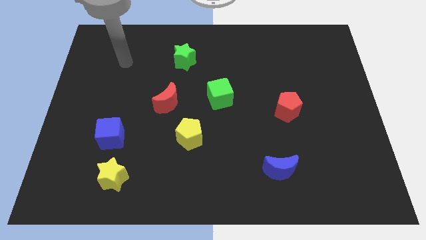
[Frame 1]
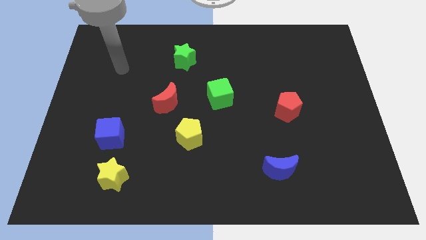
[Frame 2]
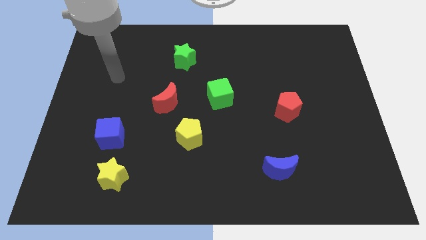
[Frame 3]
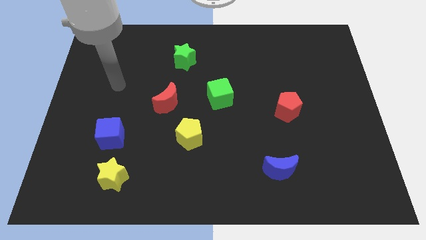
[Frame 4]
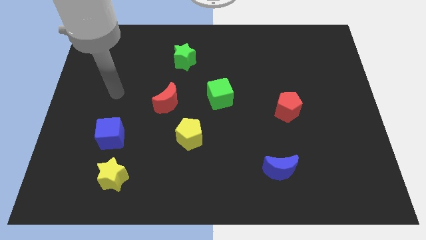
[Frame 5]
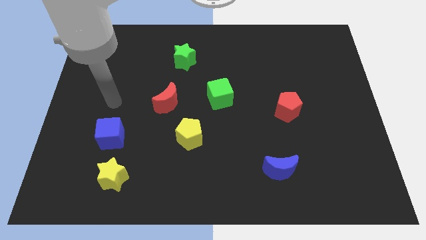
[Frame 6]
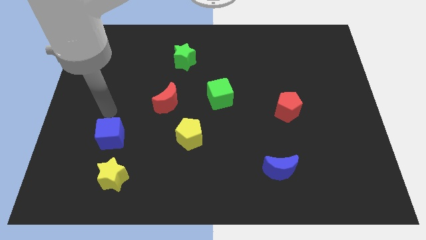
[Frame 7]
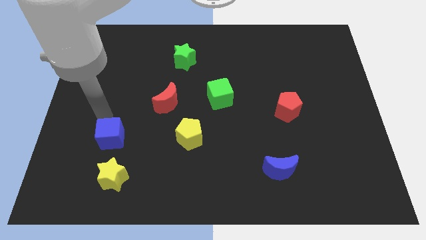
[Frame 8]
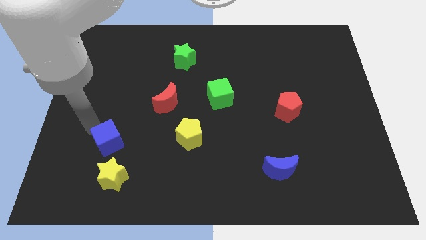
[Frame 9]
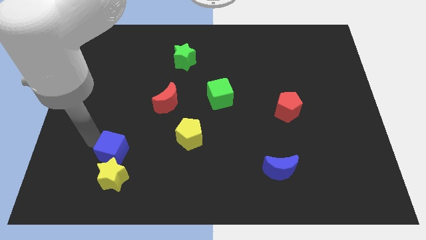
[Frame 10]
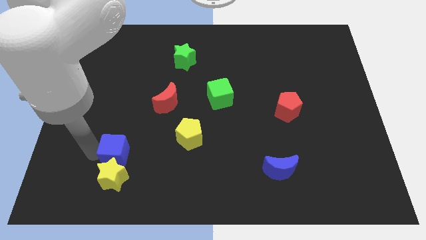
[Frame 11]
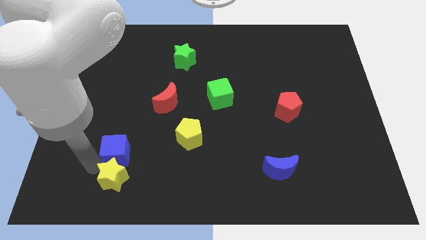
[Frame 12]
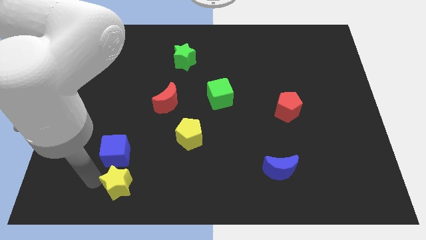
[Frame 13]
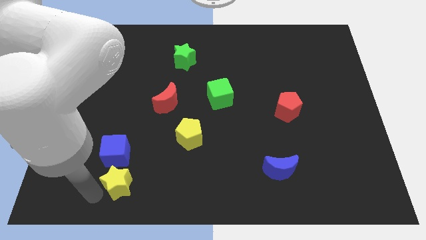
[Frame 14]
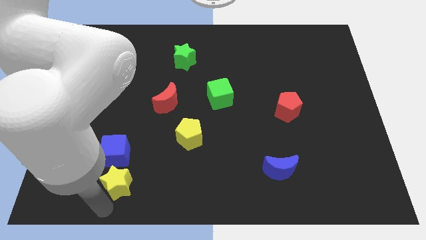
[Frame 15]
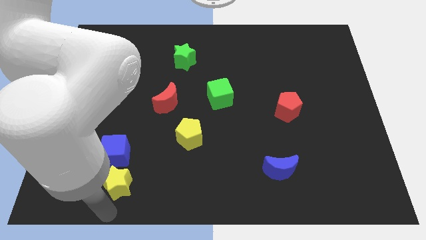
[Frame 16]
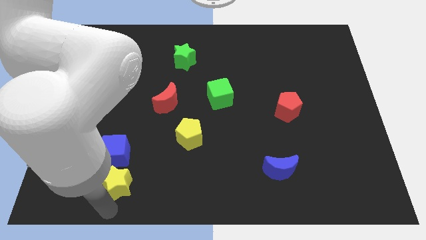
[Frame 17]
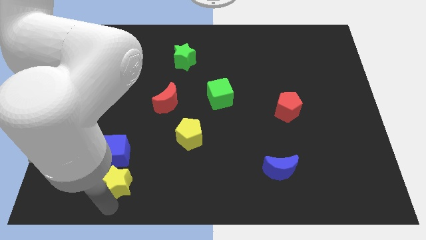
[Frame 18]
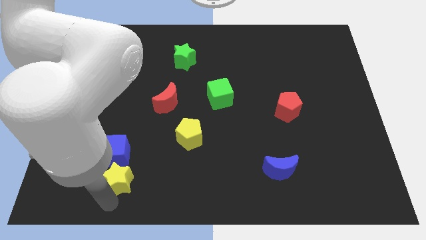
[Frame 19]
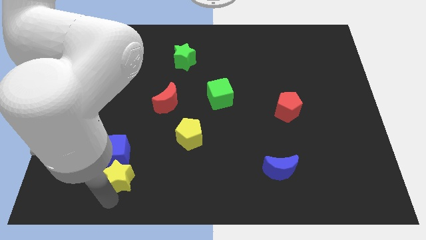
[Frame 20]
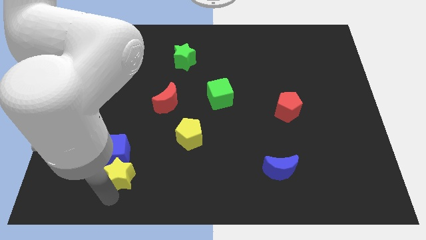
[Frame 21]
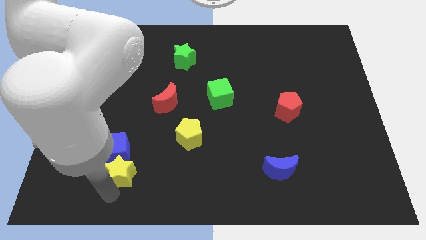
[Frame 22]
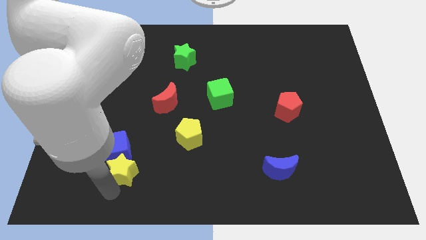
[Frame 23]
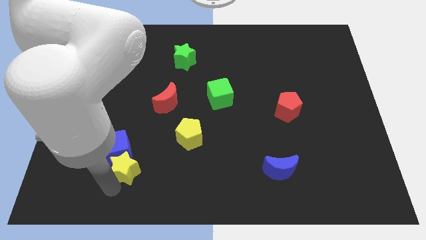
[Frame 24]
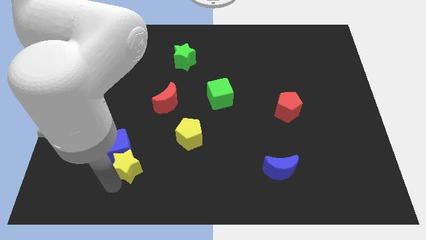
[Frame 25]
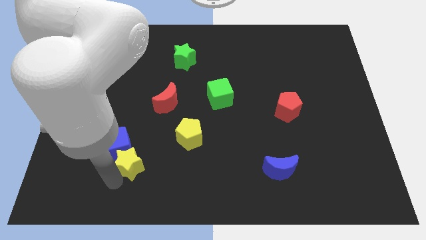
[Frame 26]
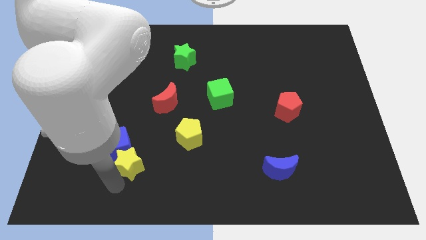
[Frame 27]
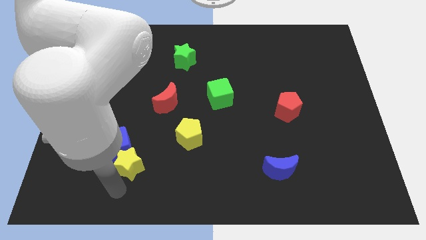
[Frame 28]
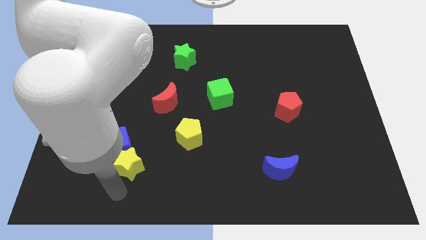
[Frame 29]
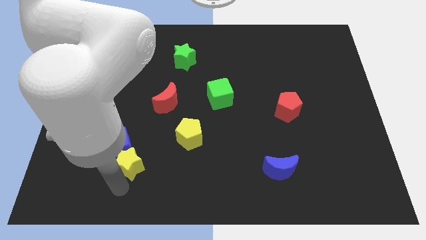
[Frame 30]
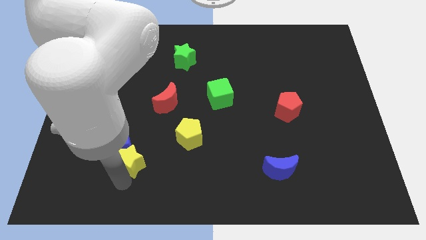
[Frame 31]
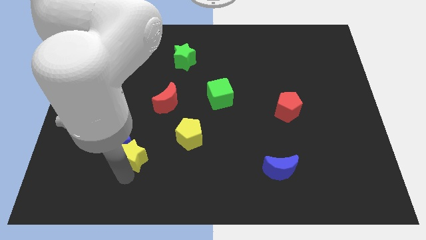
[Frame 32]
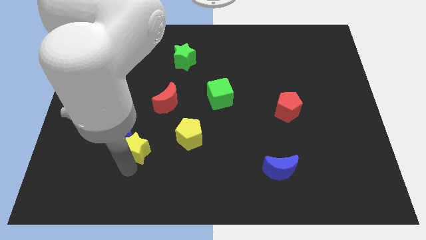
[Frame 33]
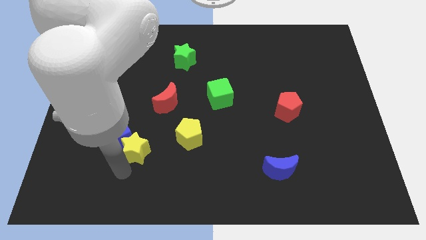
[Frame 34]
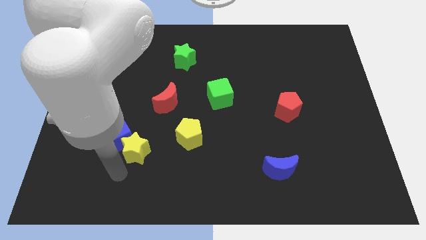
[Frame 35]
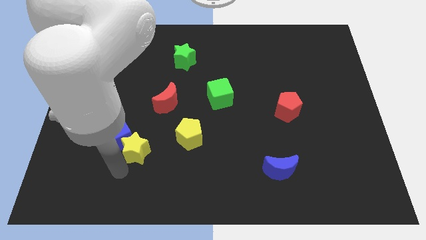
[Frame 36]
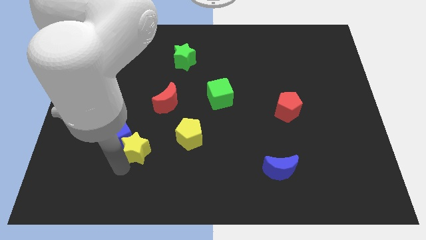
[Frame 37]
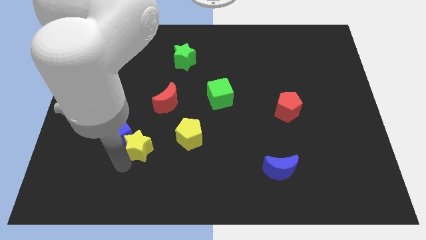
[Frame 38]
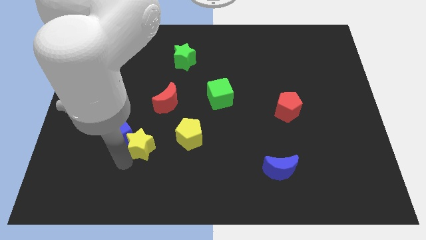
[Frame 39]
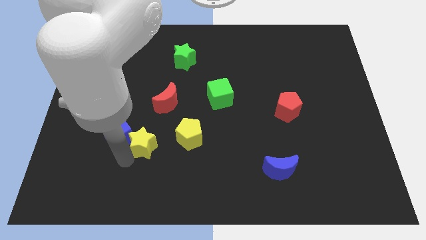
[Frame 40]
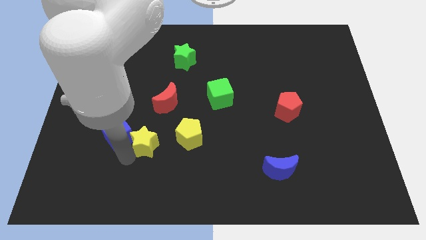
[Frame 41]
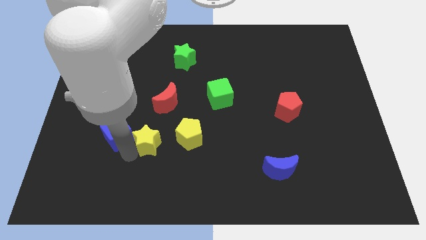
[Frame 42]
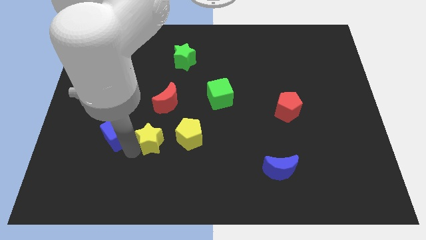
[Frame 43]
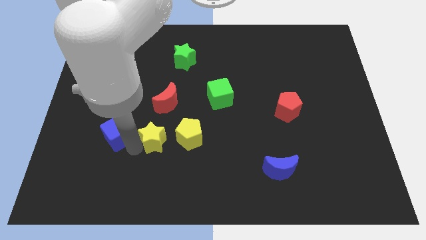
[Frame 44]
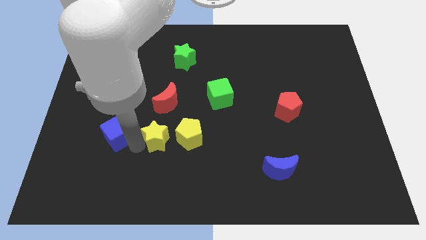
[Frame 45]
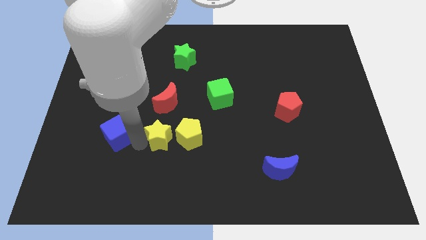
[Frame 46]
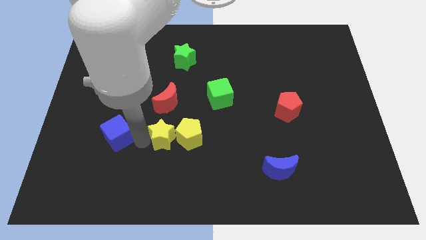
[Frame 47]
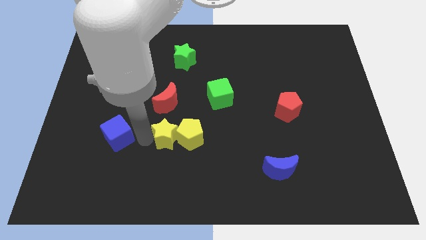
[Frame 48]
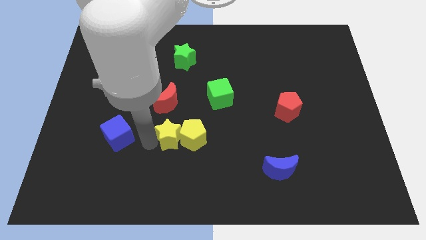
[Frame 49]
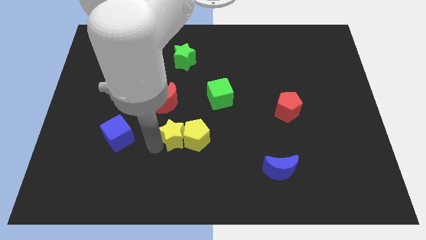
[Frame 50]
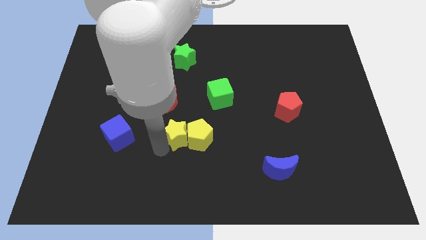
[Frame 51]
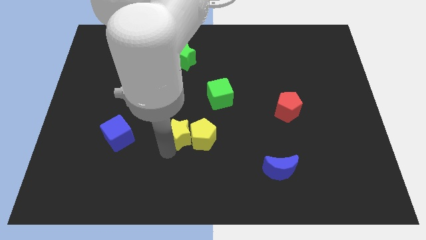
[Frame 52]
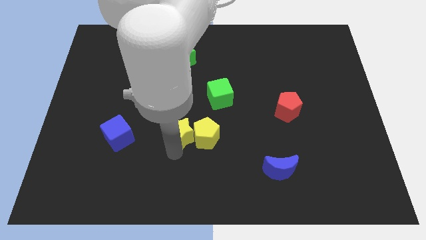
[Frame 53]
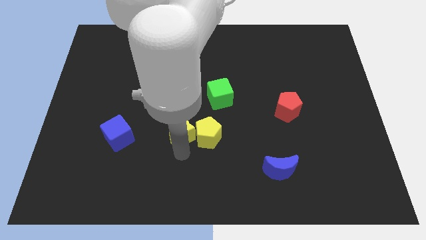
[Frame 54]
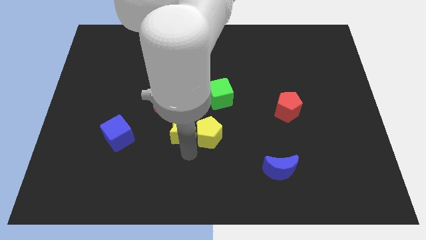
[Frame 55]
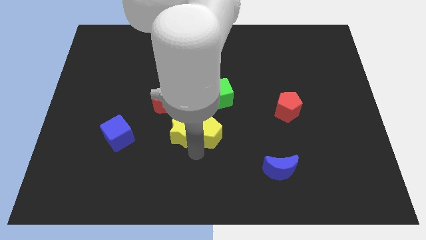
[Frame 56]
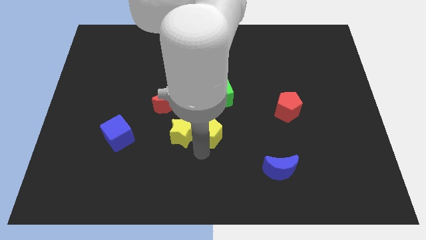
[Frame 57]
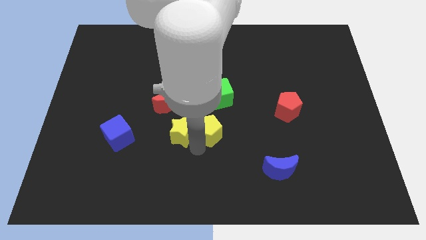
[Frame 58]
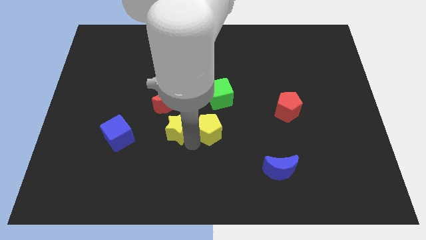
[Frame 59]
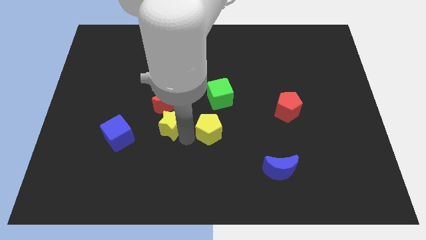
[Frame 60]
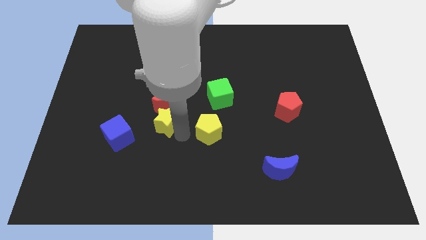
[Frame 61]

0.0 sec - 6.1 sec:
push the yellow star to the red moon
